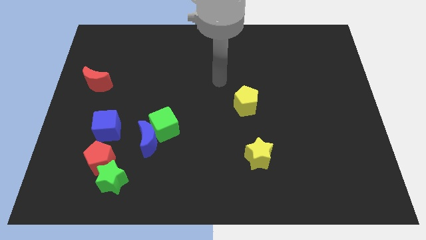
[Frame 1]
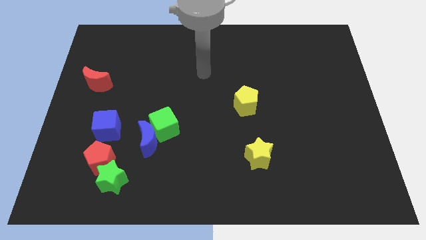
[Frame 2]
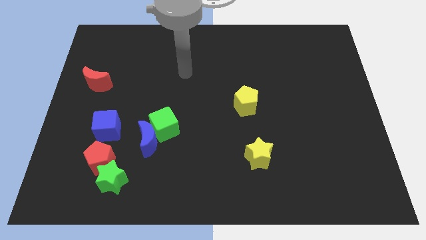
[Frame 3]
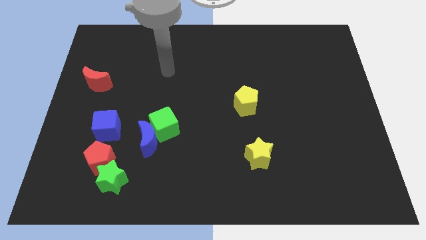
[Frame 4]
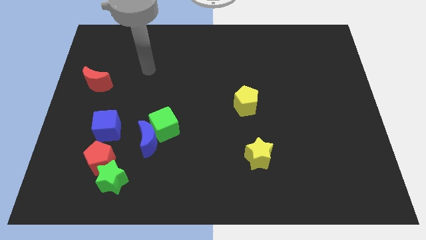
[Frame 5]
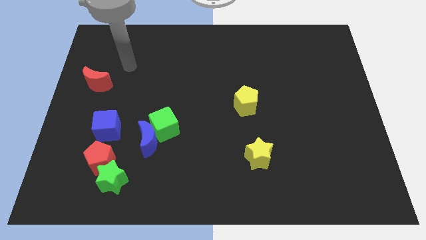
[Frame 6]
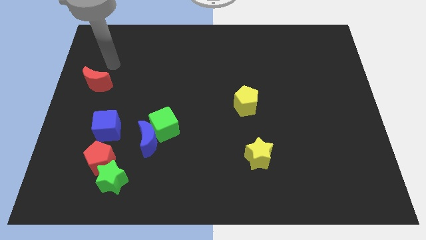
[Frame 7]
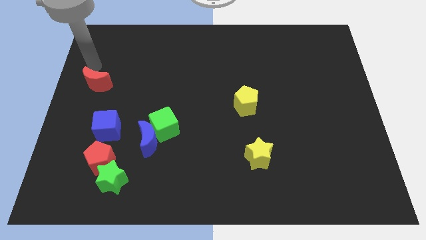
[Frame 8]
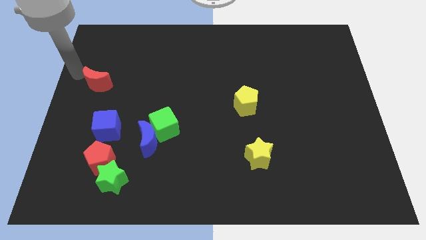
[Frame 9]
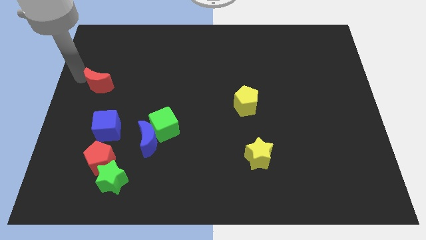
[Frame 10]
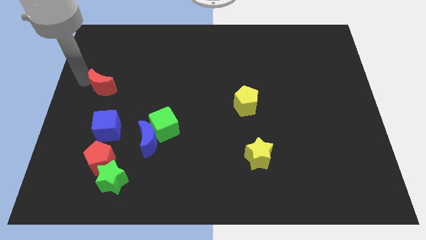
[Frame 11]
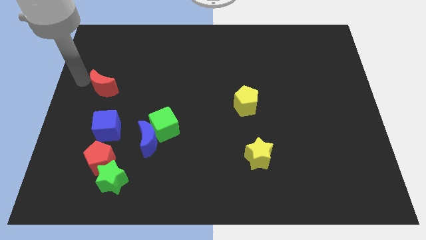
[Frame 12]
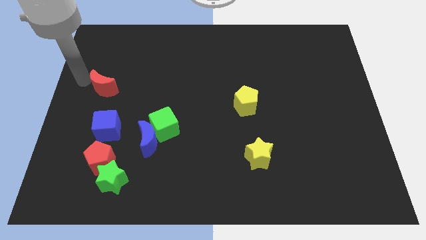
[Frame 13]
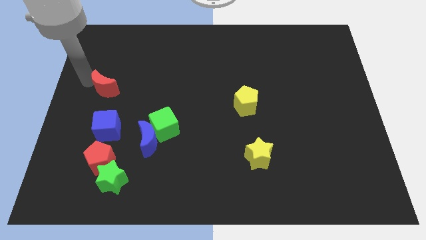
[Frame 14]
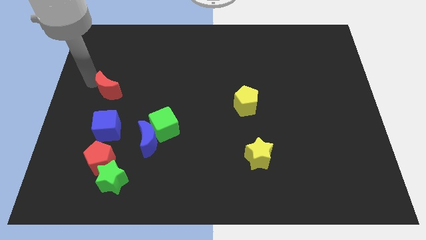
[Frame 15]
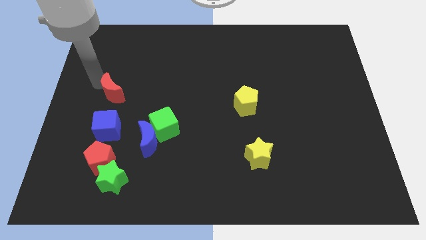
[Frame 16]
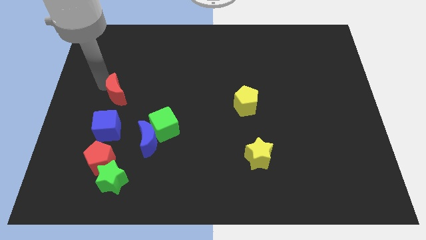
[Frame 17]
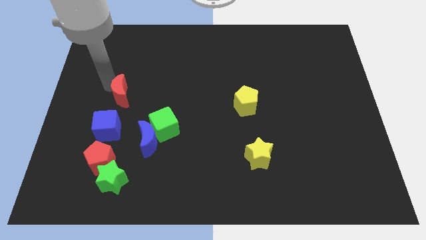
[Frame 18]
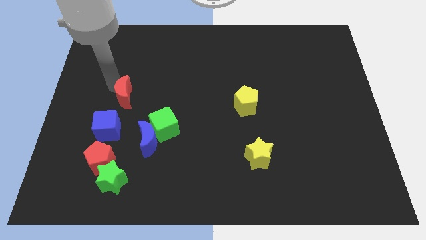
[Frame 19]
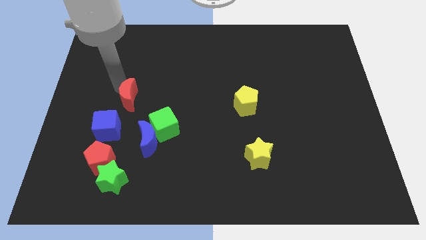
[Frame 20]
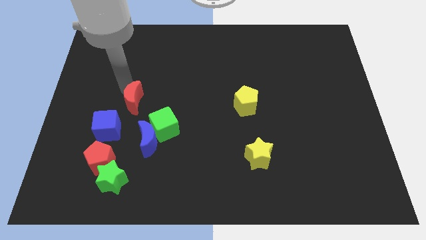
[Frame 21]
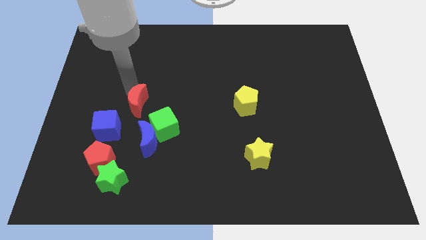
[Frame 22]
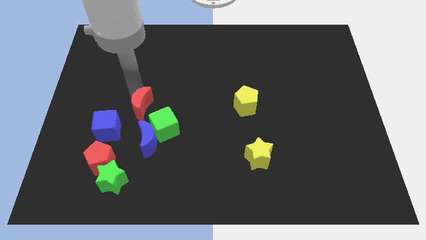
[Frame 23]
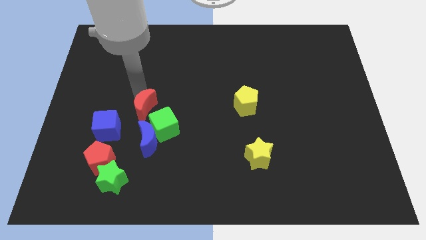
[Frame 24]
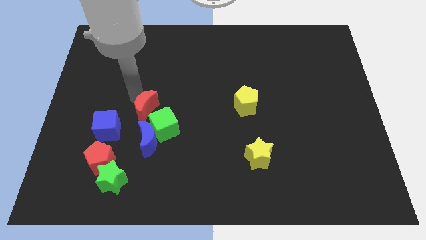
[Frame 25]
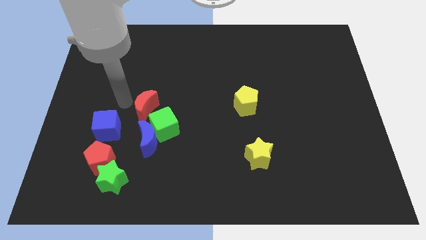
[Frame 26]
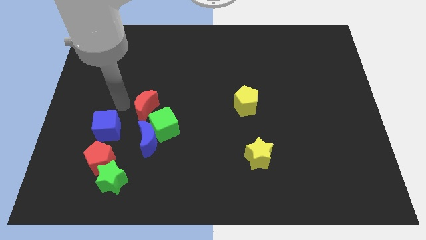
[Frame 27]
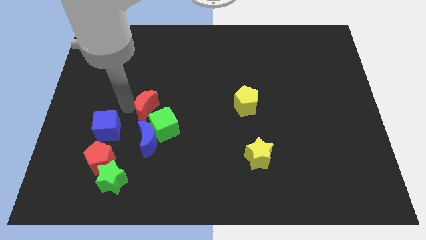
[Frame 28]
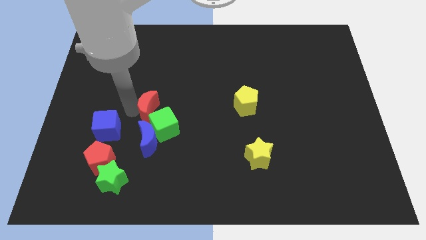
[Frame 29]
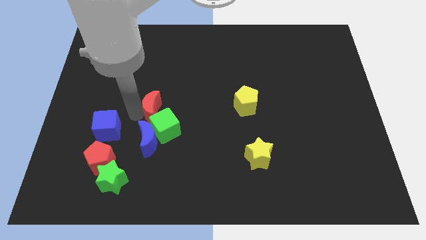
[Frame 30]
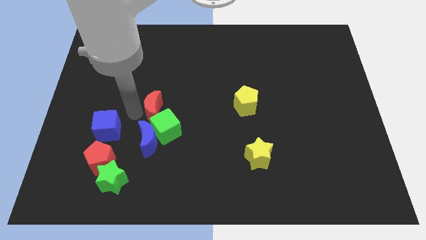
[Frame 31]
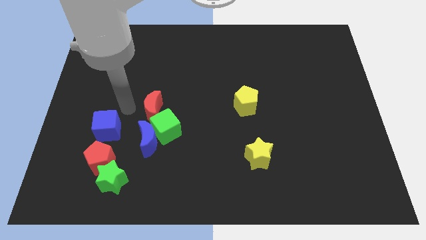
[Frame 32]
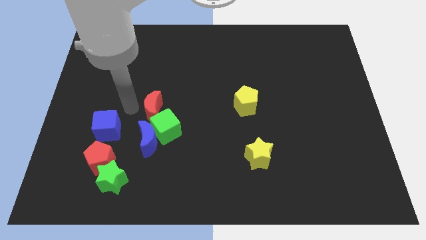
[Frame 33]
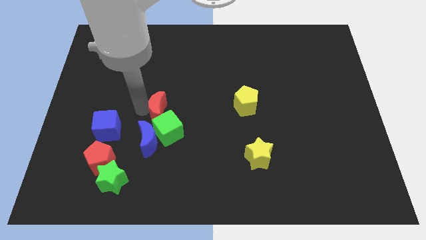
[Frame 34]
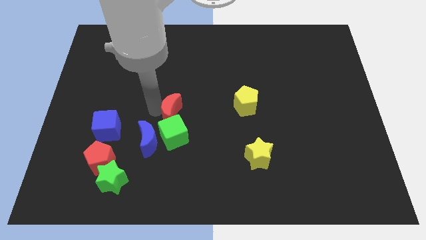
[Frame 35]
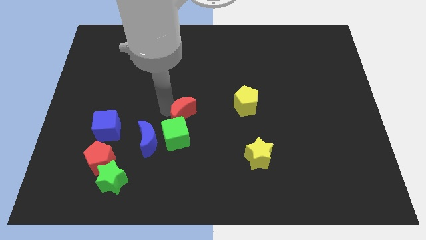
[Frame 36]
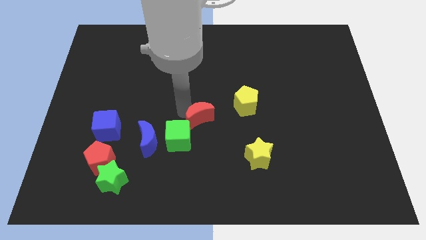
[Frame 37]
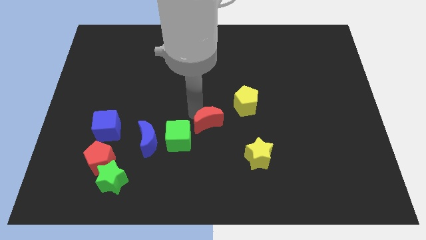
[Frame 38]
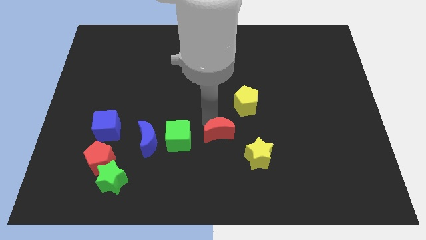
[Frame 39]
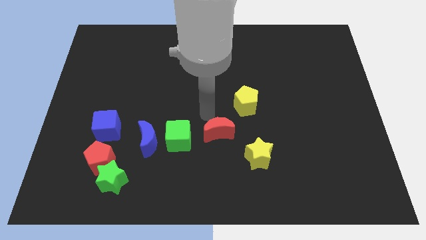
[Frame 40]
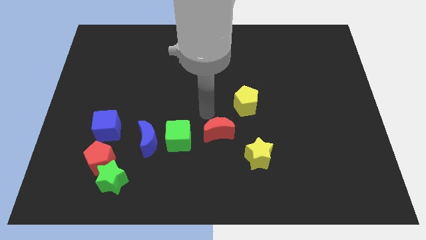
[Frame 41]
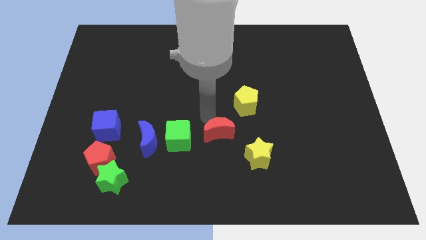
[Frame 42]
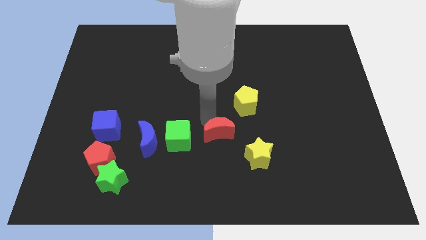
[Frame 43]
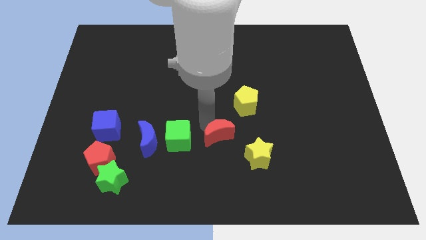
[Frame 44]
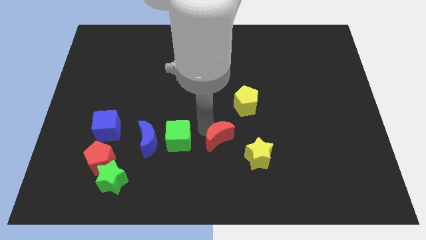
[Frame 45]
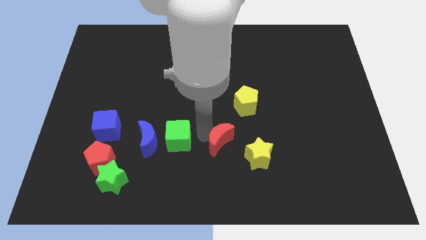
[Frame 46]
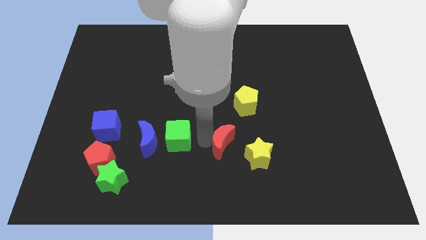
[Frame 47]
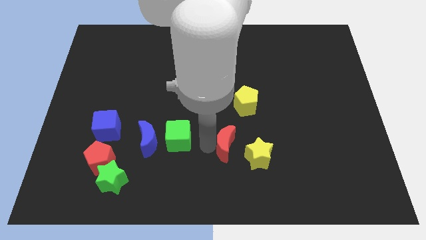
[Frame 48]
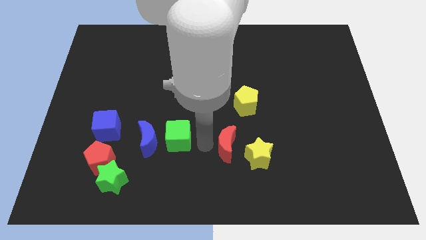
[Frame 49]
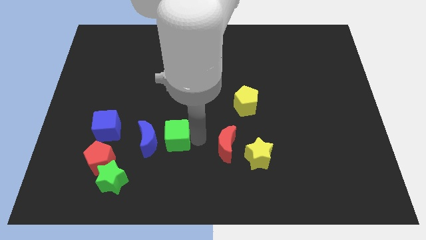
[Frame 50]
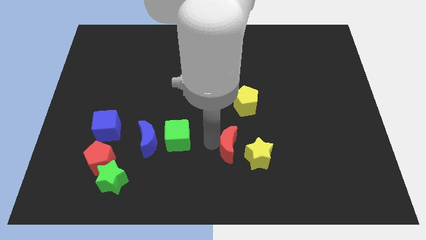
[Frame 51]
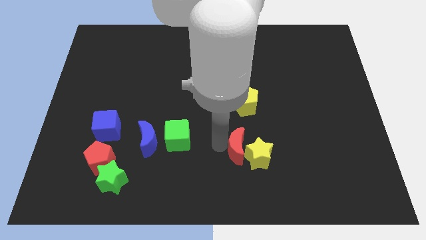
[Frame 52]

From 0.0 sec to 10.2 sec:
push the red moon to the yellow star

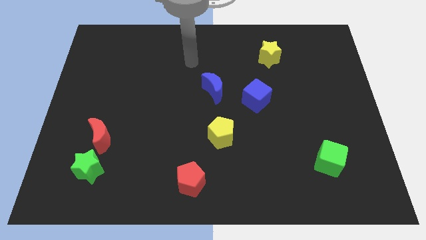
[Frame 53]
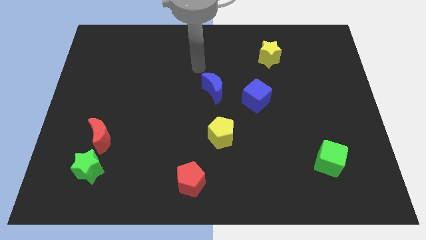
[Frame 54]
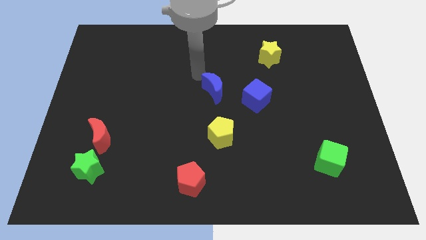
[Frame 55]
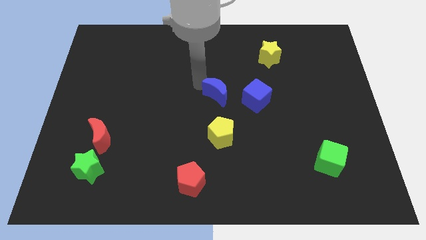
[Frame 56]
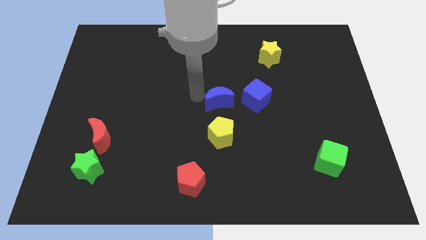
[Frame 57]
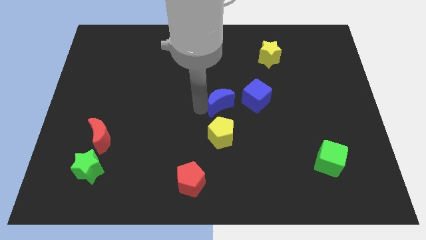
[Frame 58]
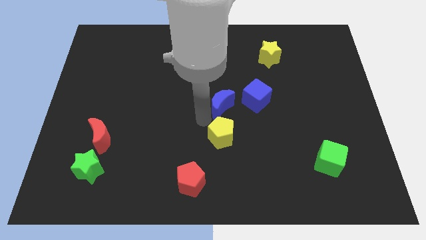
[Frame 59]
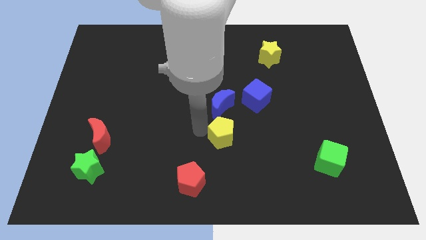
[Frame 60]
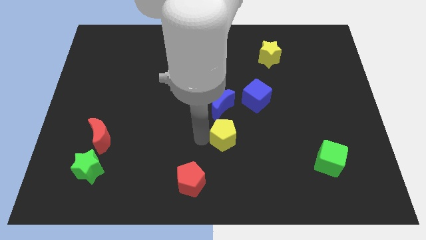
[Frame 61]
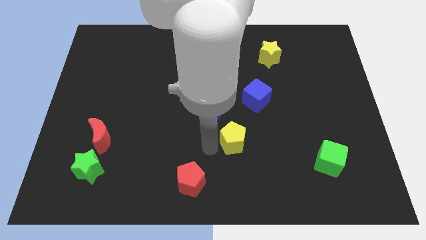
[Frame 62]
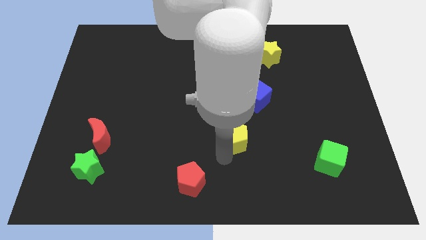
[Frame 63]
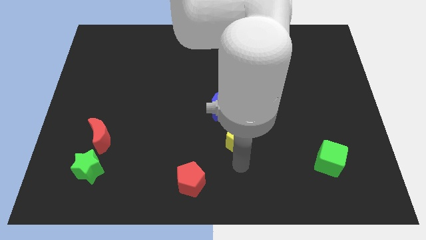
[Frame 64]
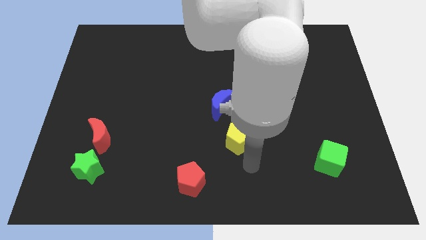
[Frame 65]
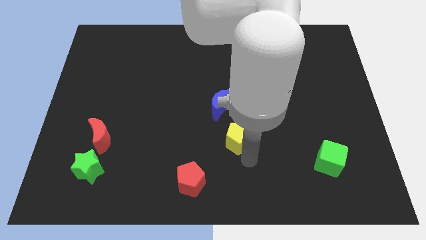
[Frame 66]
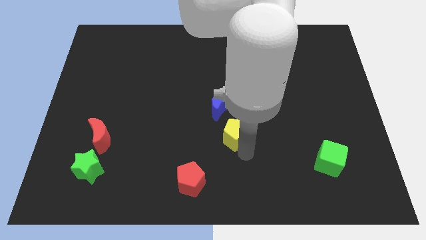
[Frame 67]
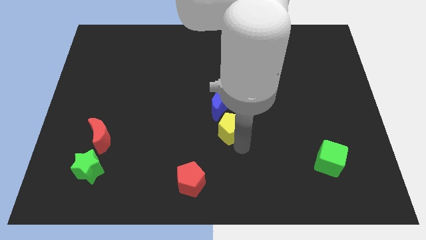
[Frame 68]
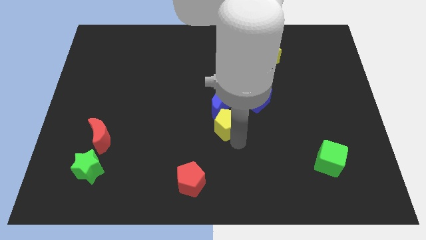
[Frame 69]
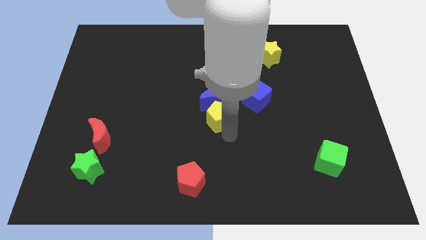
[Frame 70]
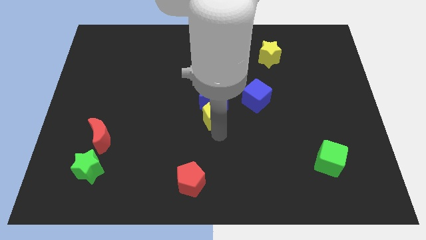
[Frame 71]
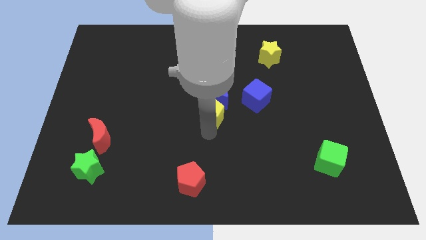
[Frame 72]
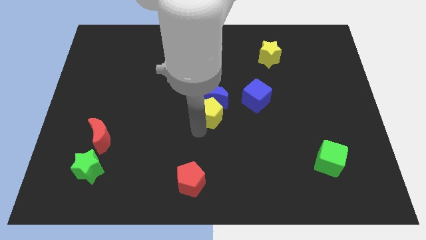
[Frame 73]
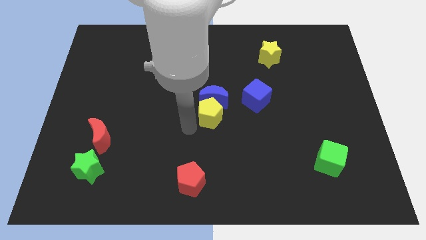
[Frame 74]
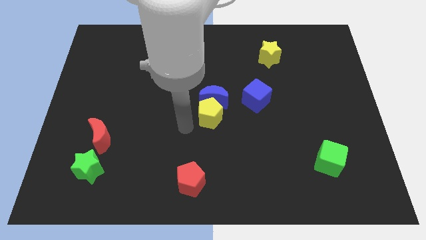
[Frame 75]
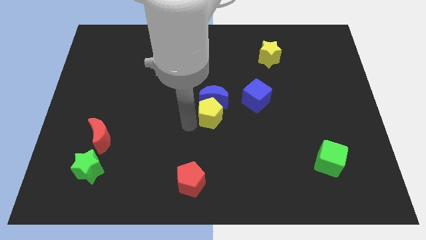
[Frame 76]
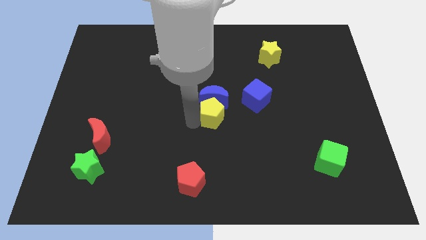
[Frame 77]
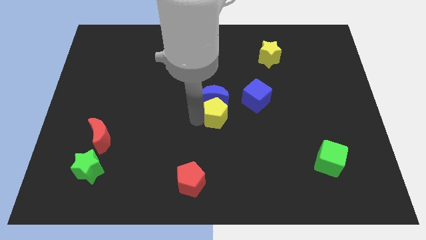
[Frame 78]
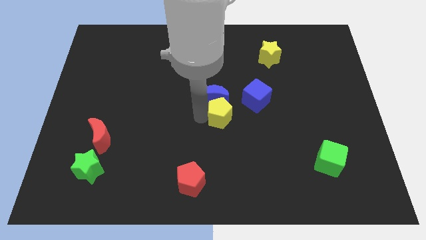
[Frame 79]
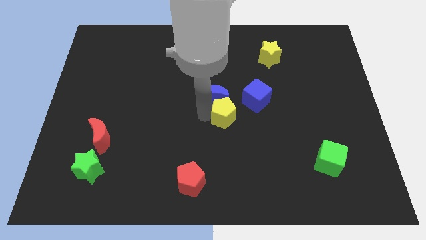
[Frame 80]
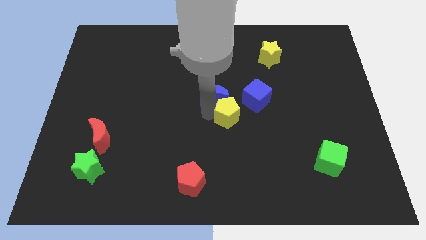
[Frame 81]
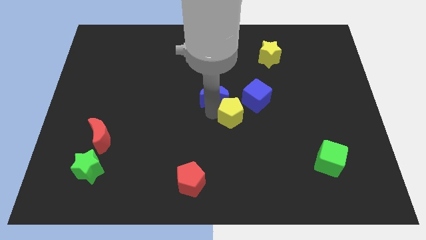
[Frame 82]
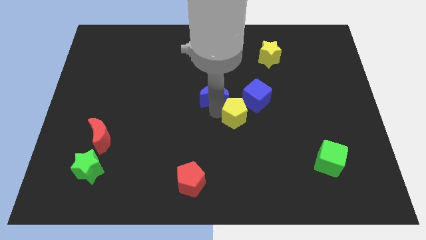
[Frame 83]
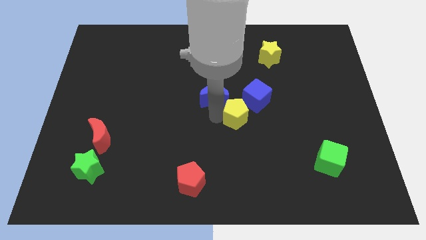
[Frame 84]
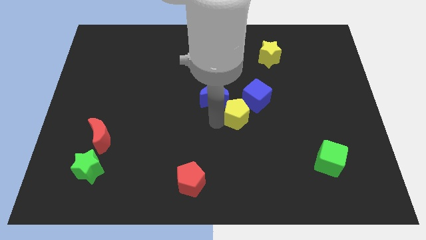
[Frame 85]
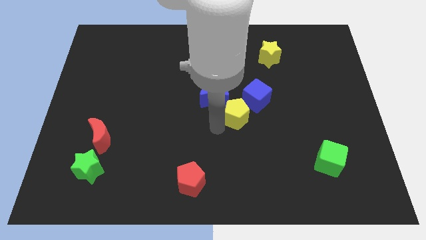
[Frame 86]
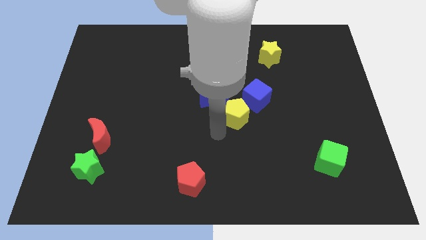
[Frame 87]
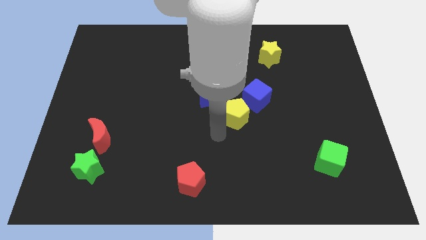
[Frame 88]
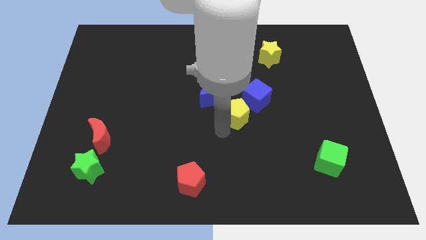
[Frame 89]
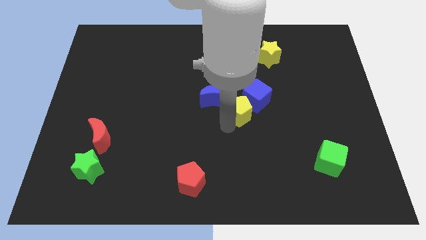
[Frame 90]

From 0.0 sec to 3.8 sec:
push the yellow pentagon close to the blue cube
